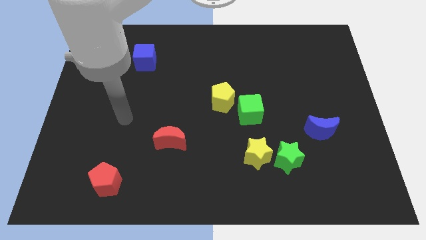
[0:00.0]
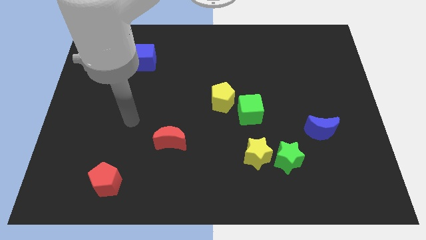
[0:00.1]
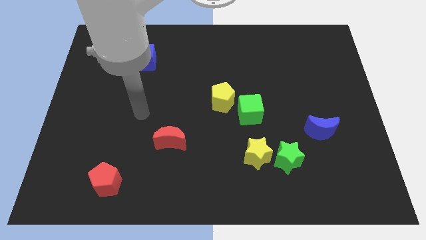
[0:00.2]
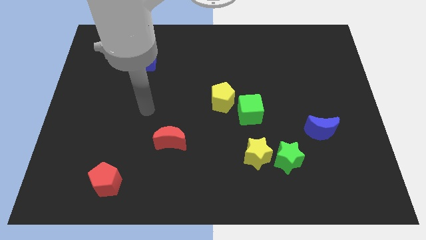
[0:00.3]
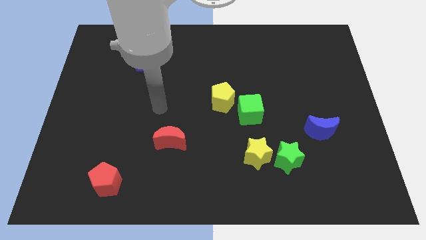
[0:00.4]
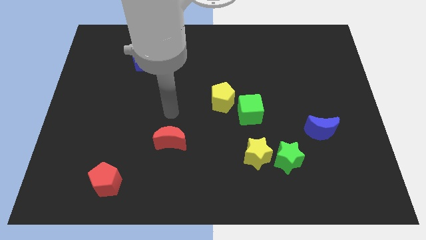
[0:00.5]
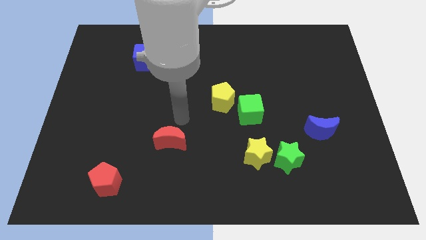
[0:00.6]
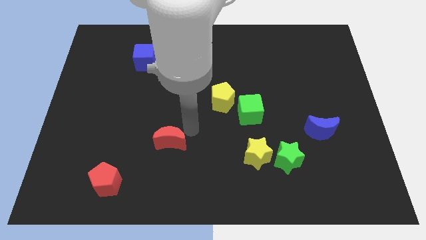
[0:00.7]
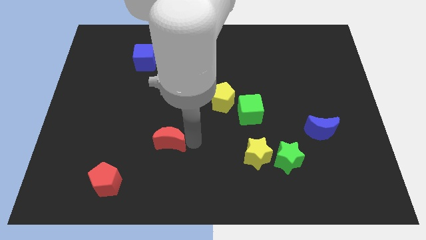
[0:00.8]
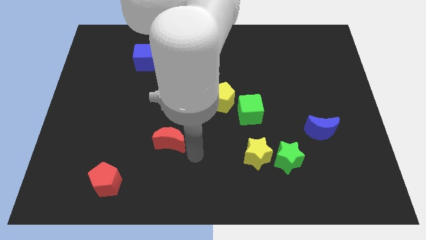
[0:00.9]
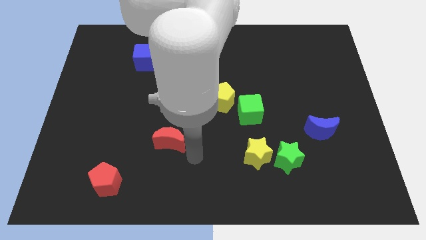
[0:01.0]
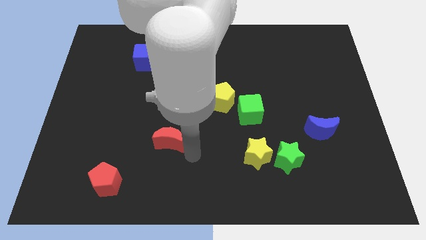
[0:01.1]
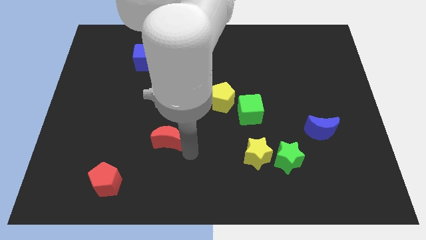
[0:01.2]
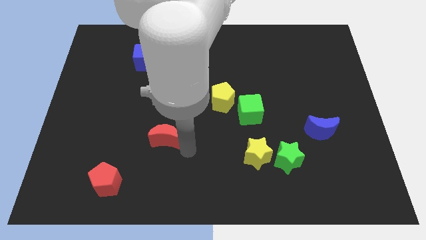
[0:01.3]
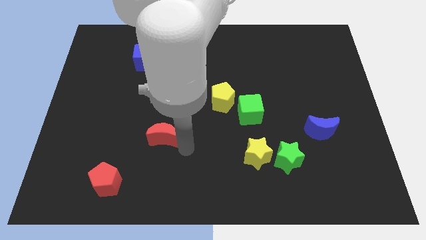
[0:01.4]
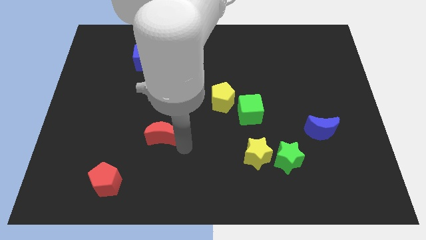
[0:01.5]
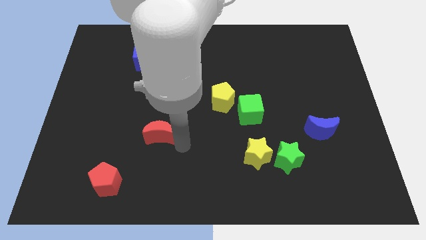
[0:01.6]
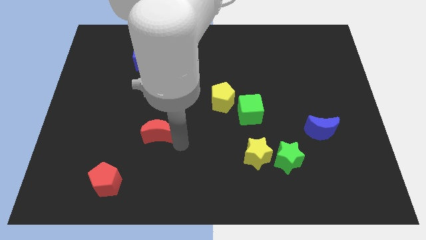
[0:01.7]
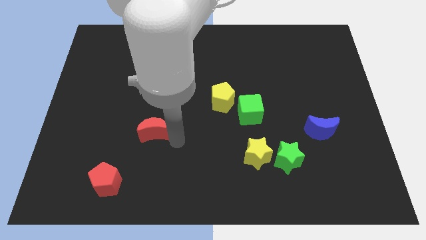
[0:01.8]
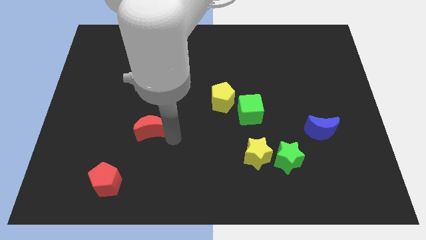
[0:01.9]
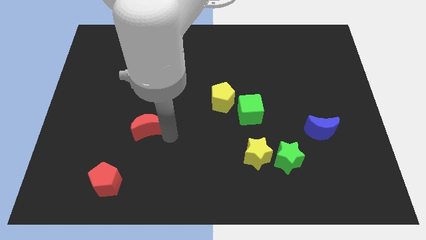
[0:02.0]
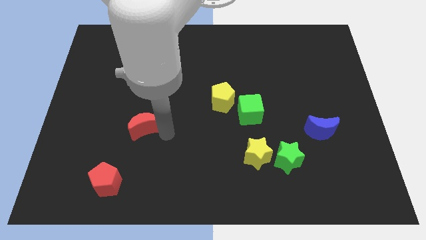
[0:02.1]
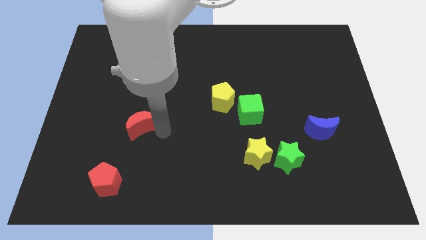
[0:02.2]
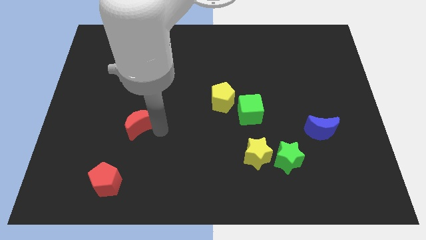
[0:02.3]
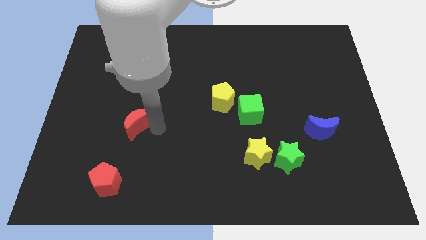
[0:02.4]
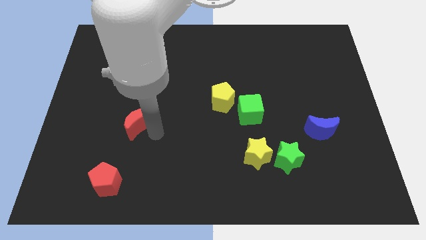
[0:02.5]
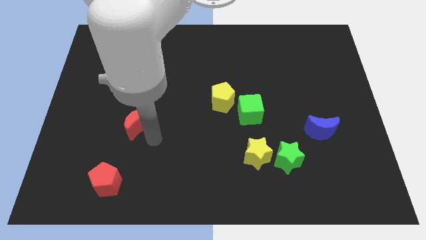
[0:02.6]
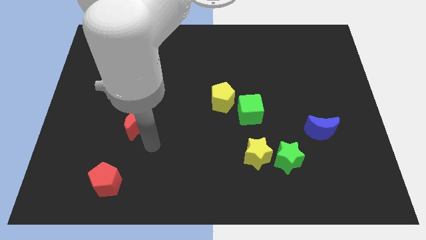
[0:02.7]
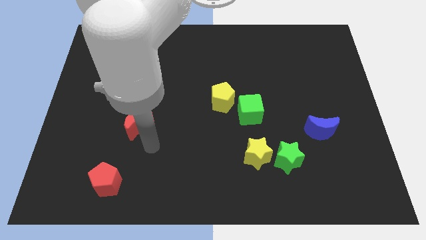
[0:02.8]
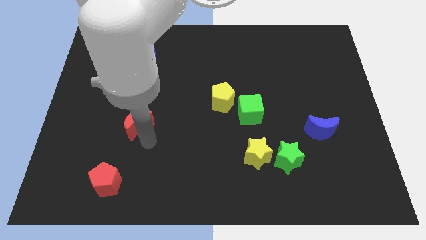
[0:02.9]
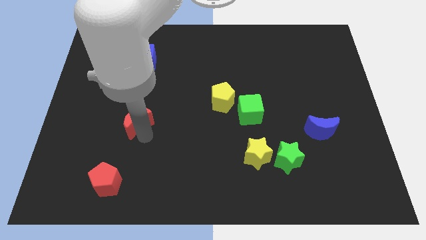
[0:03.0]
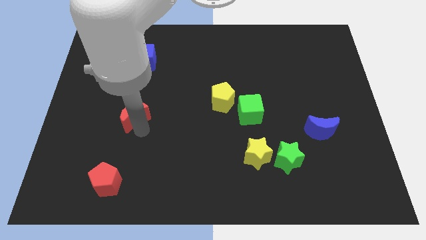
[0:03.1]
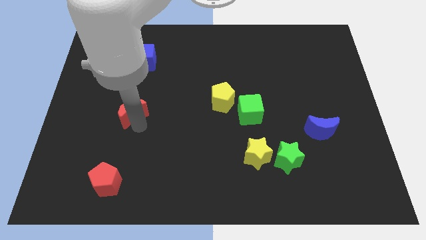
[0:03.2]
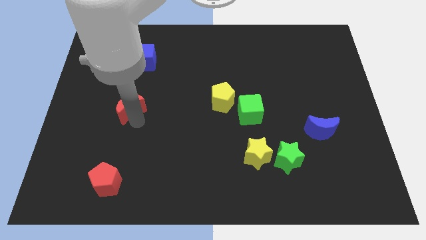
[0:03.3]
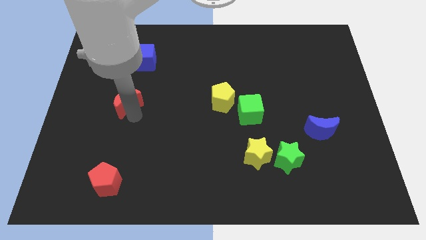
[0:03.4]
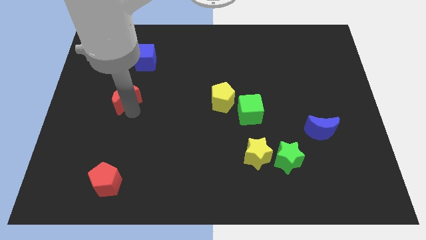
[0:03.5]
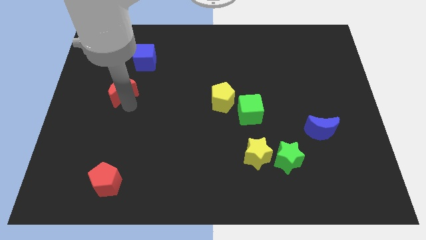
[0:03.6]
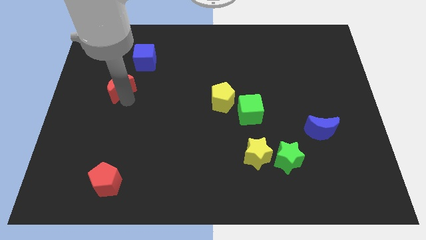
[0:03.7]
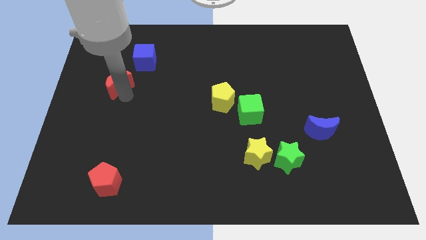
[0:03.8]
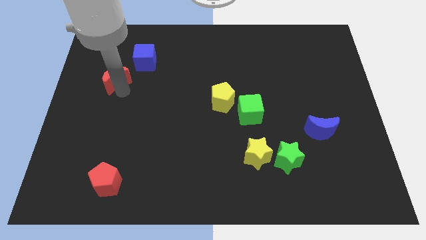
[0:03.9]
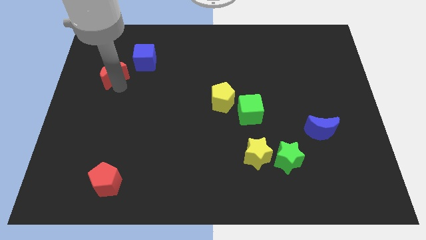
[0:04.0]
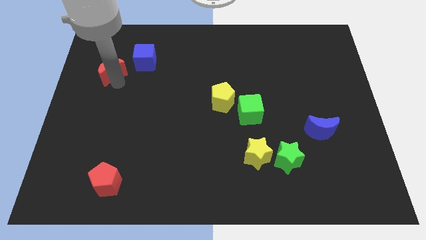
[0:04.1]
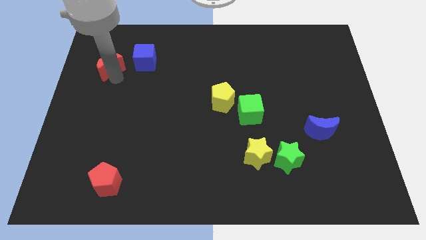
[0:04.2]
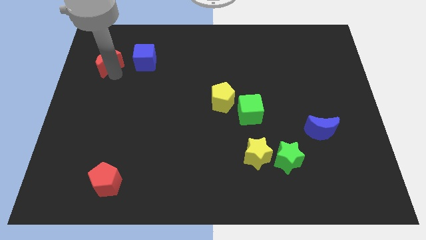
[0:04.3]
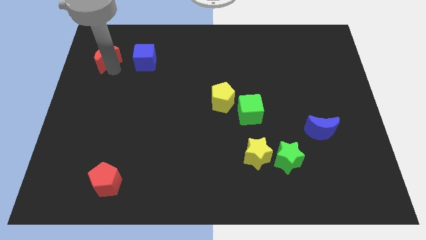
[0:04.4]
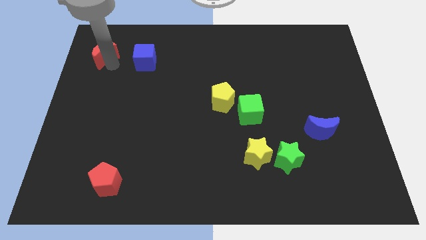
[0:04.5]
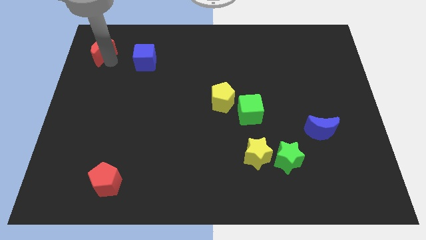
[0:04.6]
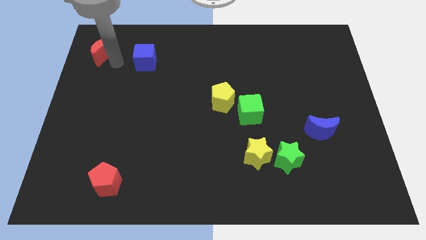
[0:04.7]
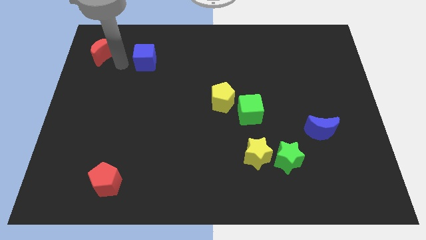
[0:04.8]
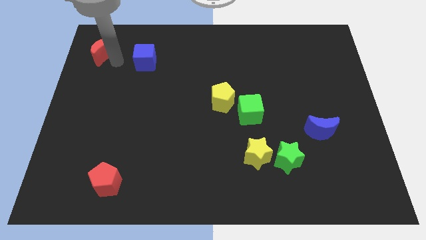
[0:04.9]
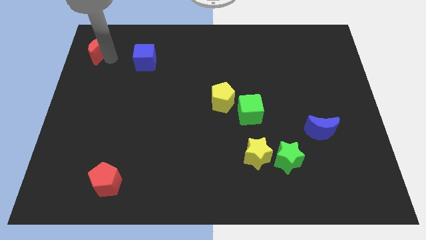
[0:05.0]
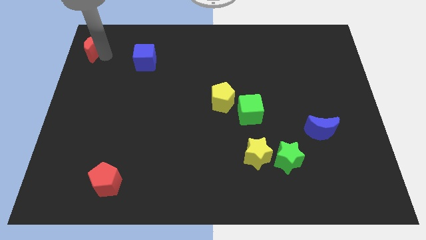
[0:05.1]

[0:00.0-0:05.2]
push the red moon to the top left

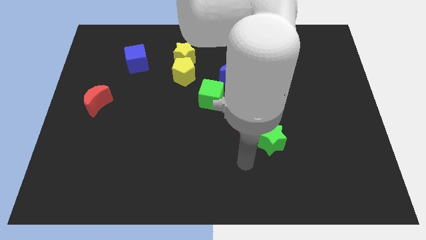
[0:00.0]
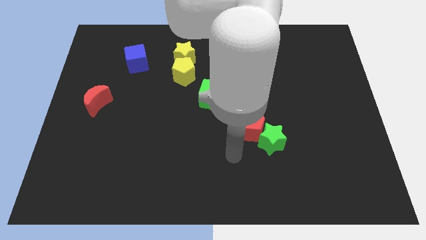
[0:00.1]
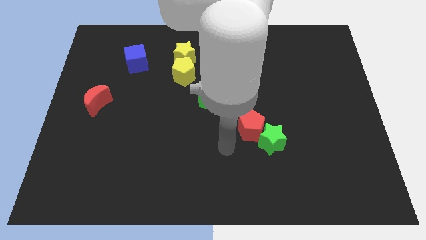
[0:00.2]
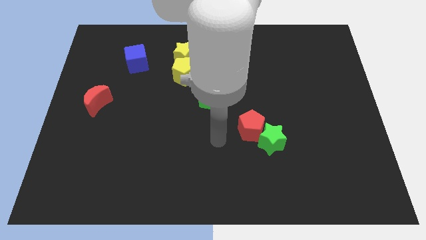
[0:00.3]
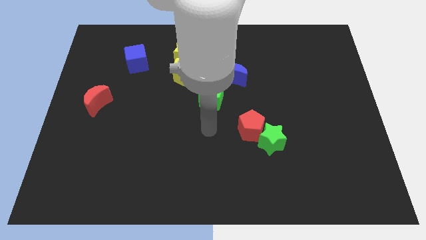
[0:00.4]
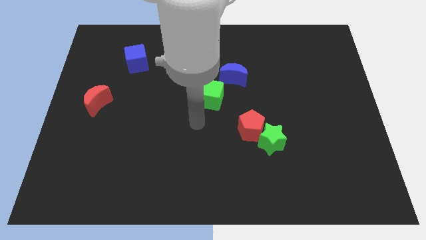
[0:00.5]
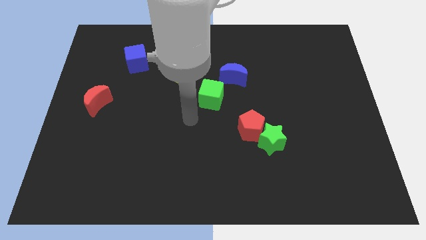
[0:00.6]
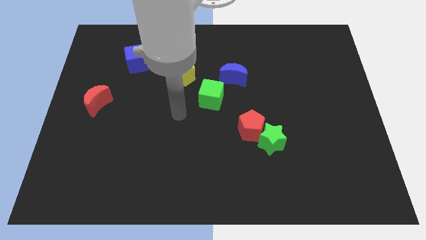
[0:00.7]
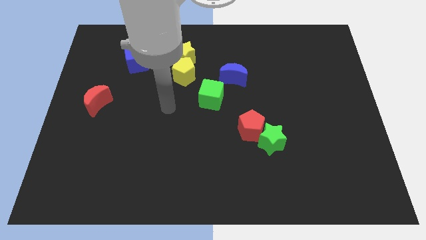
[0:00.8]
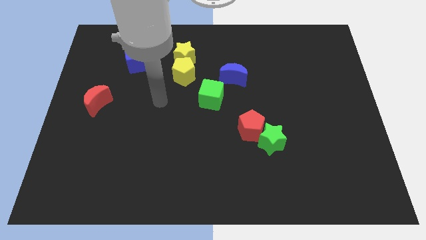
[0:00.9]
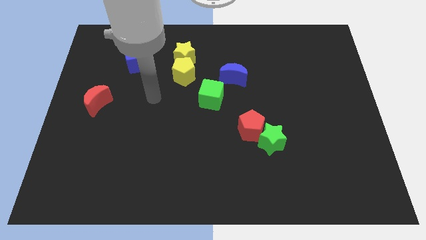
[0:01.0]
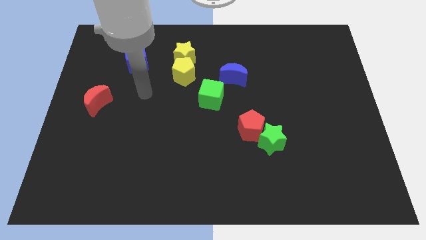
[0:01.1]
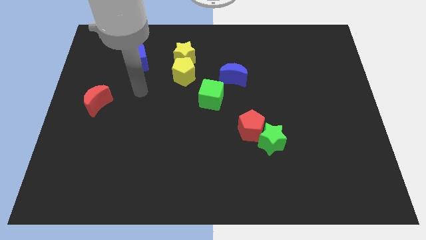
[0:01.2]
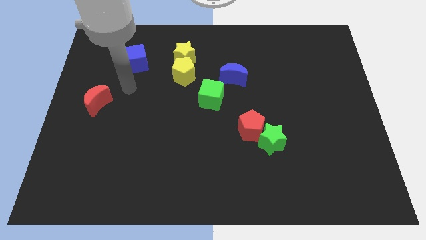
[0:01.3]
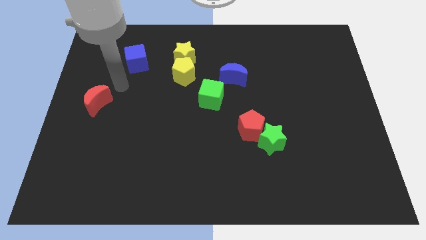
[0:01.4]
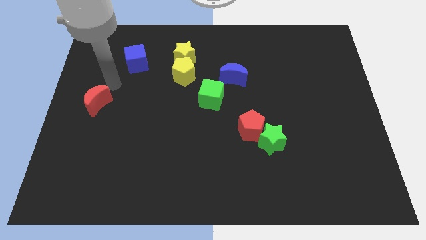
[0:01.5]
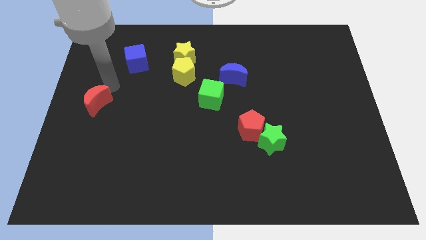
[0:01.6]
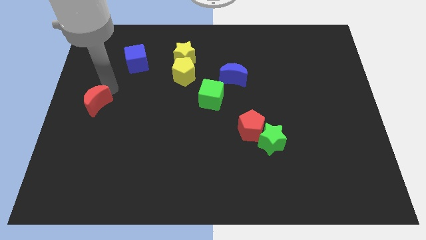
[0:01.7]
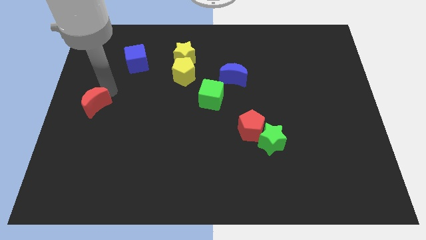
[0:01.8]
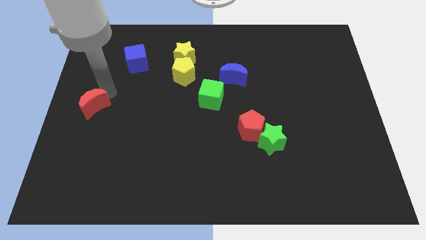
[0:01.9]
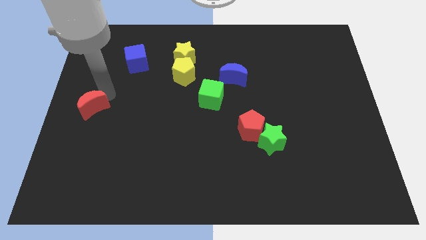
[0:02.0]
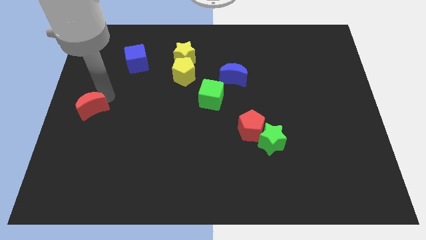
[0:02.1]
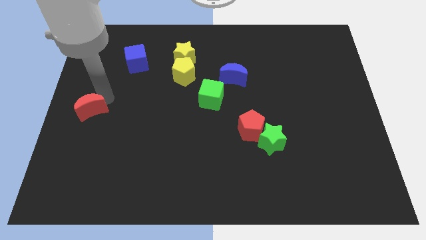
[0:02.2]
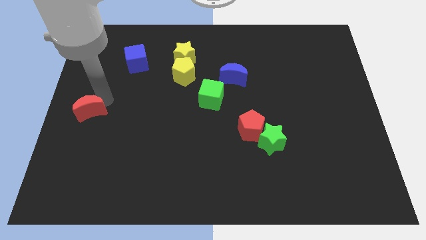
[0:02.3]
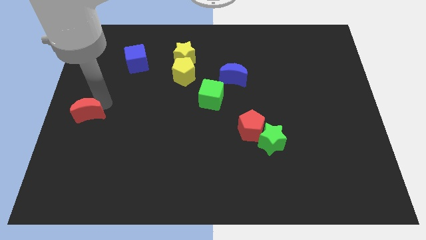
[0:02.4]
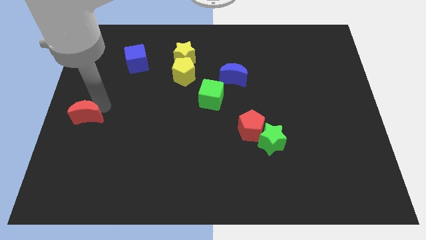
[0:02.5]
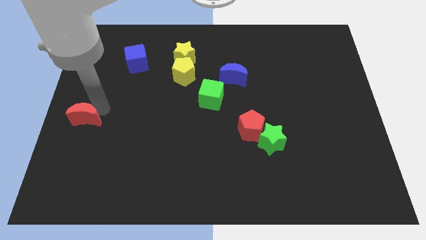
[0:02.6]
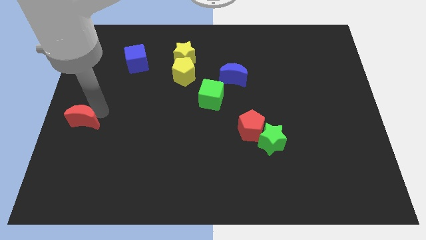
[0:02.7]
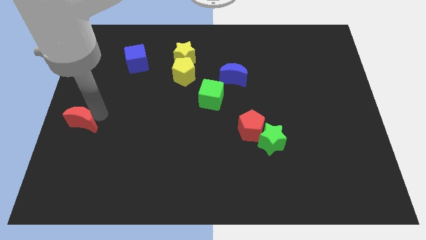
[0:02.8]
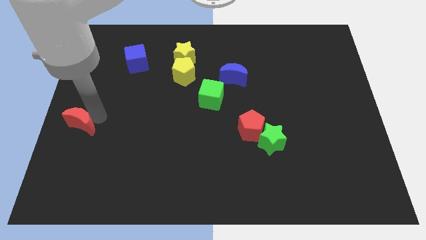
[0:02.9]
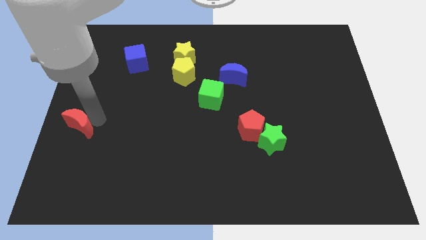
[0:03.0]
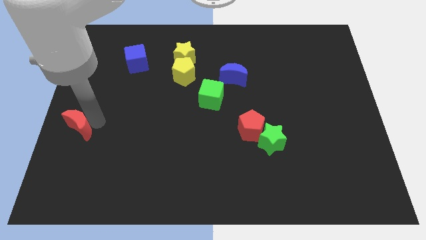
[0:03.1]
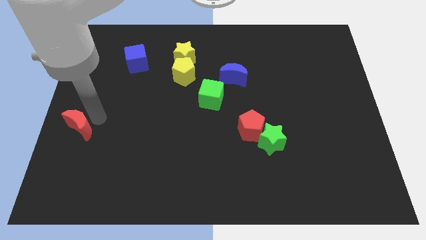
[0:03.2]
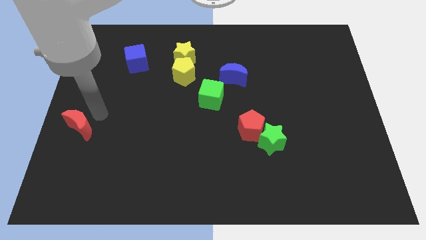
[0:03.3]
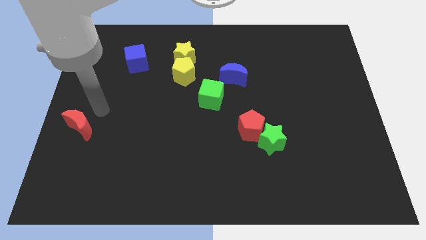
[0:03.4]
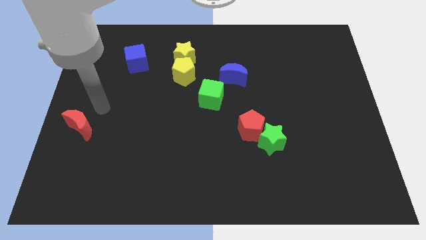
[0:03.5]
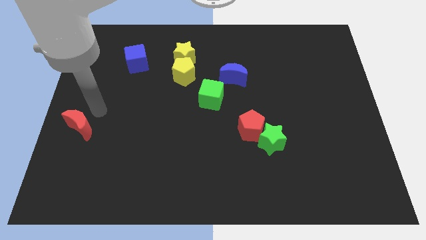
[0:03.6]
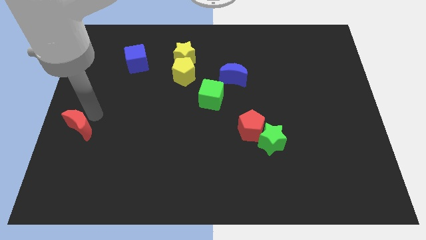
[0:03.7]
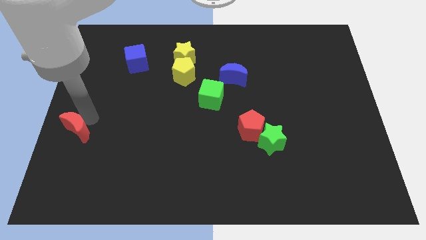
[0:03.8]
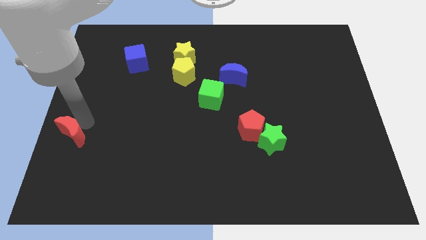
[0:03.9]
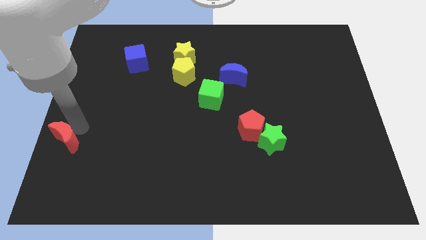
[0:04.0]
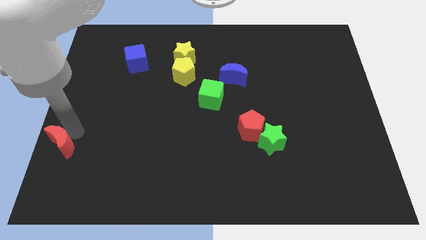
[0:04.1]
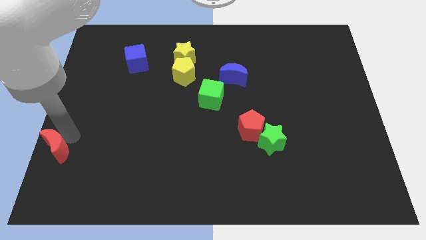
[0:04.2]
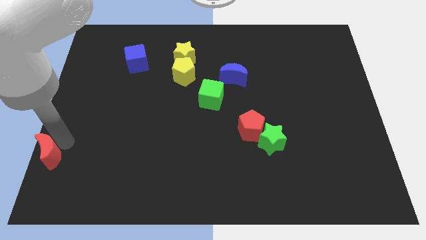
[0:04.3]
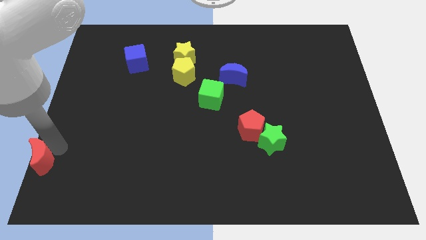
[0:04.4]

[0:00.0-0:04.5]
move the red moon to the lower left corner
